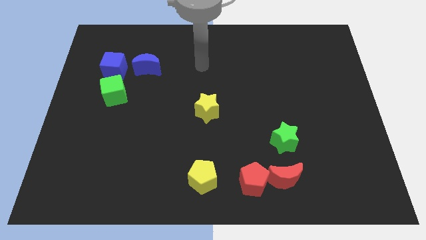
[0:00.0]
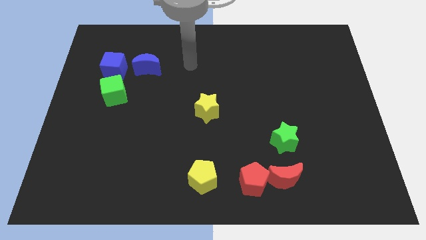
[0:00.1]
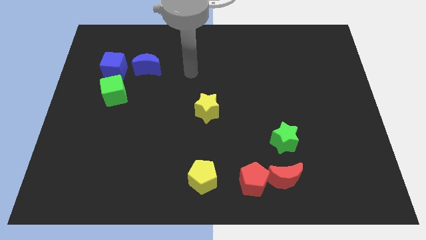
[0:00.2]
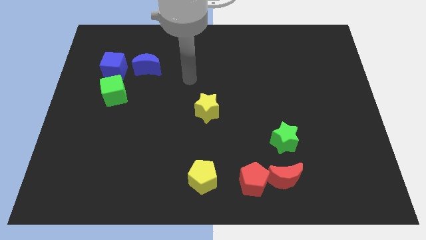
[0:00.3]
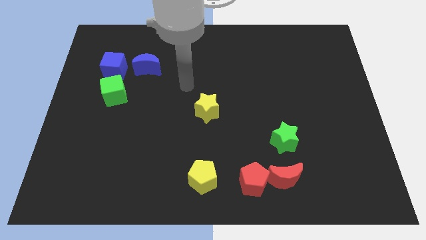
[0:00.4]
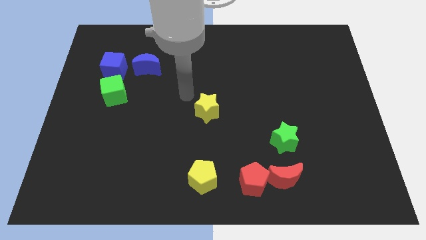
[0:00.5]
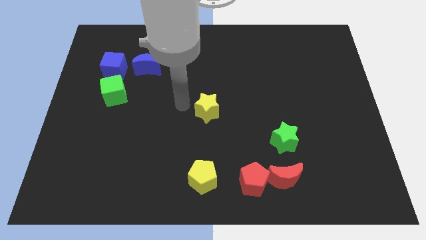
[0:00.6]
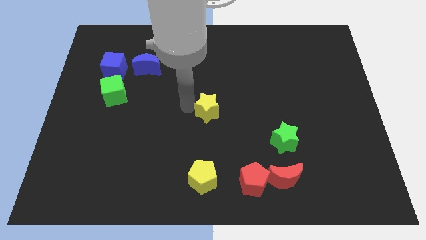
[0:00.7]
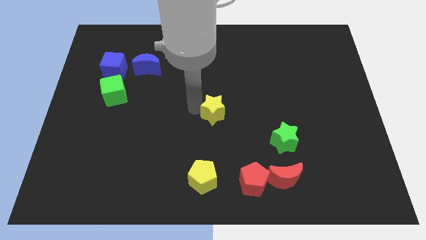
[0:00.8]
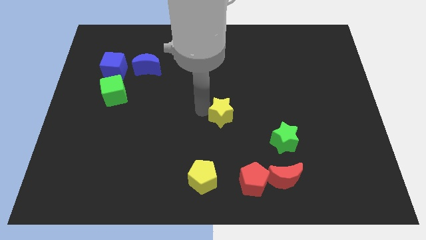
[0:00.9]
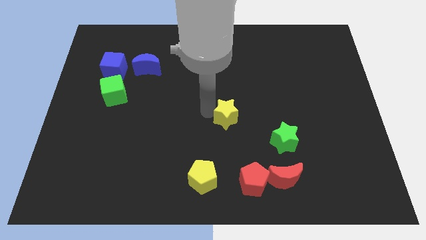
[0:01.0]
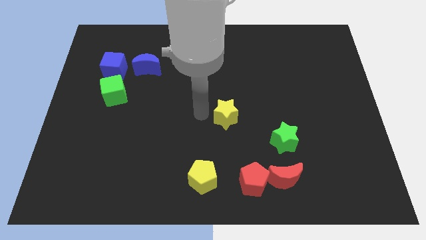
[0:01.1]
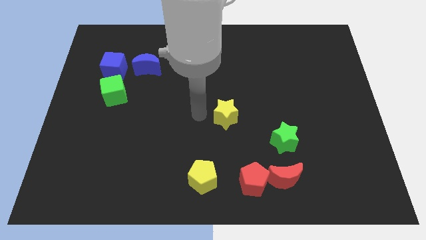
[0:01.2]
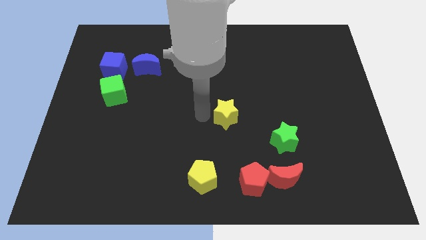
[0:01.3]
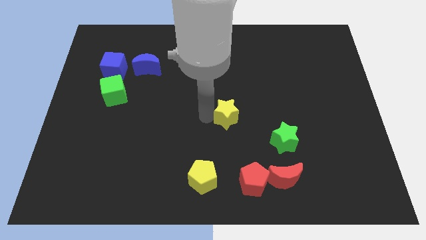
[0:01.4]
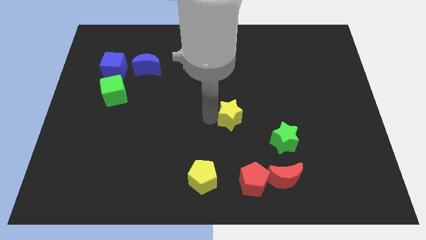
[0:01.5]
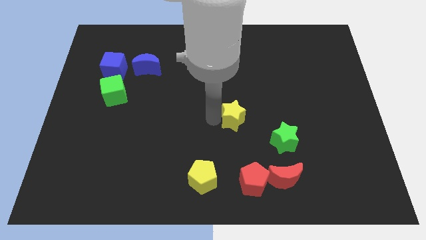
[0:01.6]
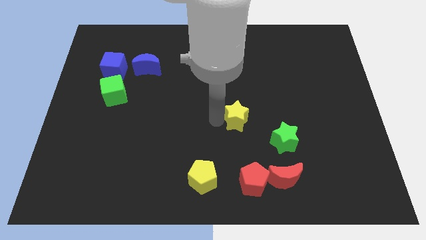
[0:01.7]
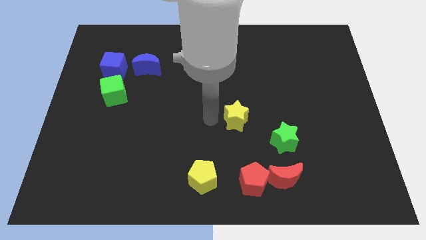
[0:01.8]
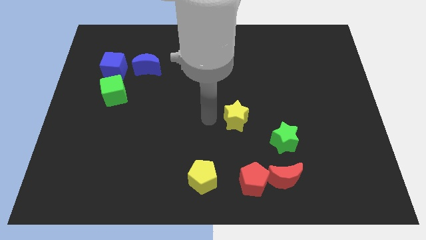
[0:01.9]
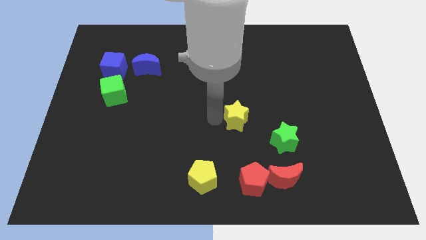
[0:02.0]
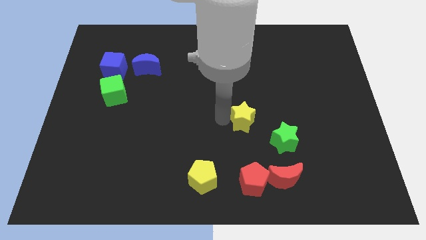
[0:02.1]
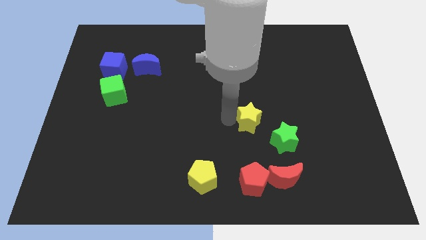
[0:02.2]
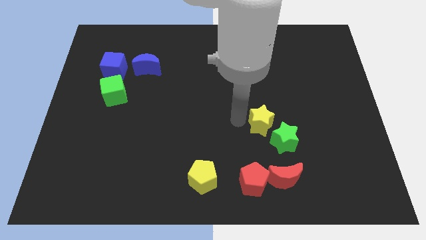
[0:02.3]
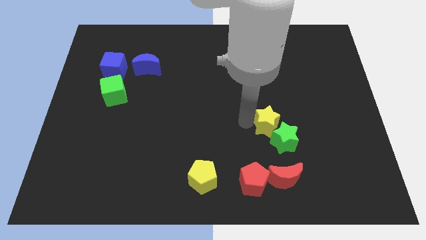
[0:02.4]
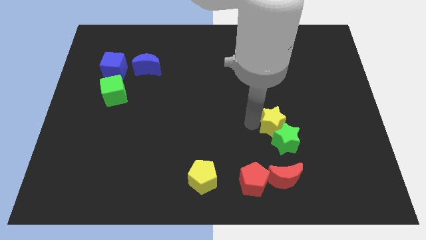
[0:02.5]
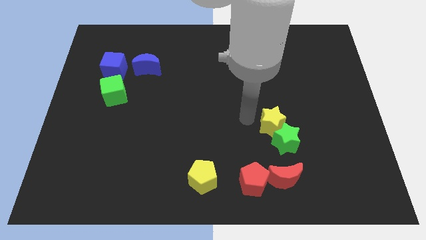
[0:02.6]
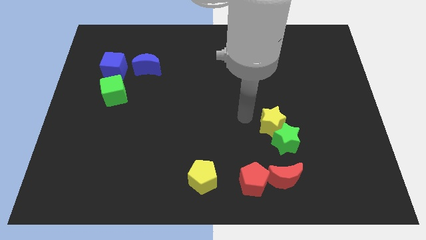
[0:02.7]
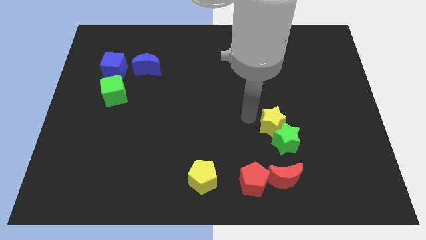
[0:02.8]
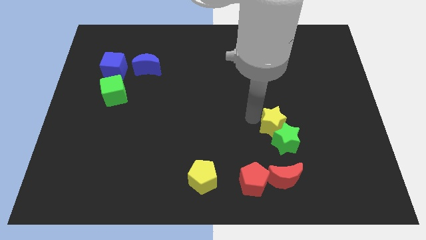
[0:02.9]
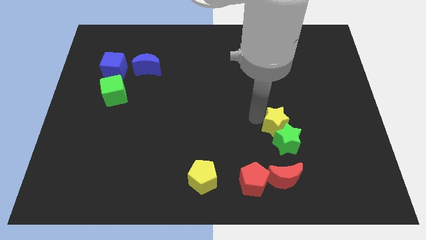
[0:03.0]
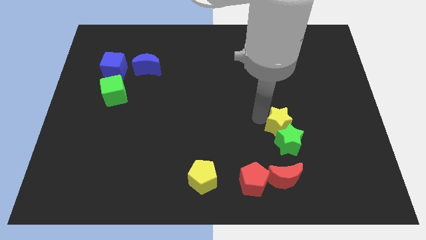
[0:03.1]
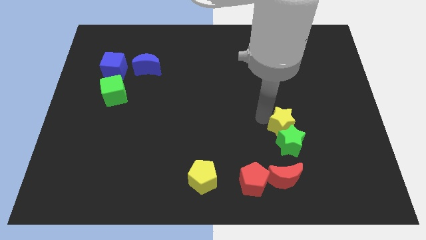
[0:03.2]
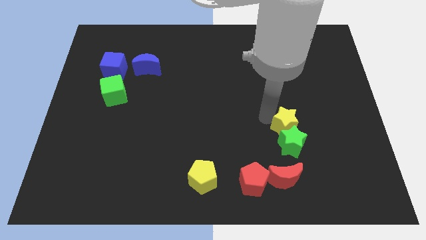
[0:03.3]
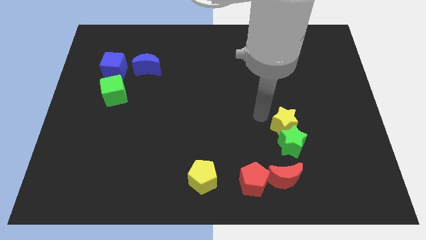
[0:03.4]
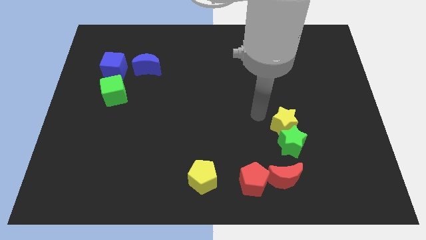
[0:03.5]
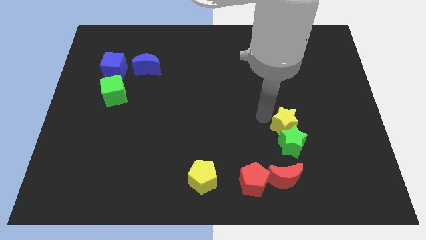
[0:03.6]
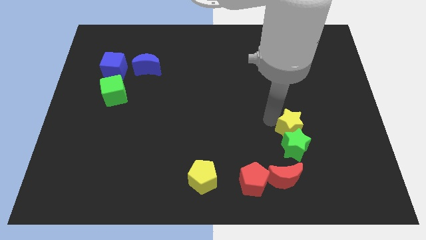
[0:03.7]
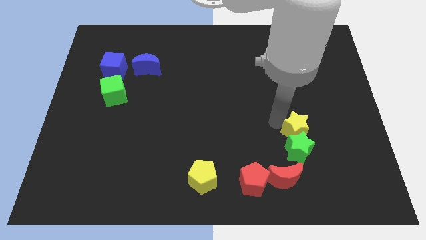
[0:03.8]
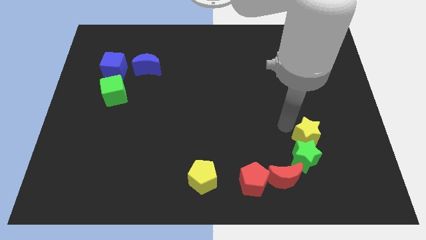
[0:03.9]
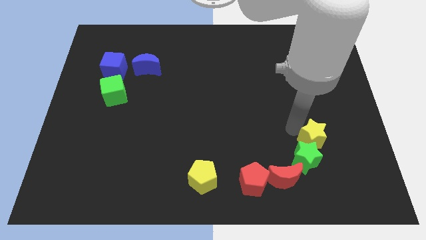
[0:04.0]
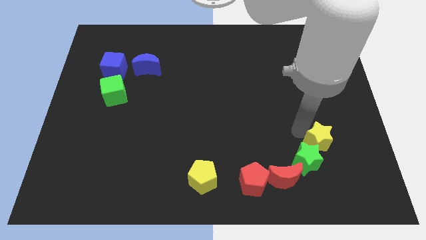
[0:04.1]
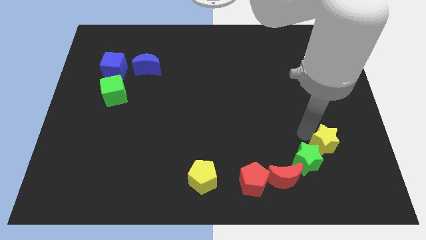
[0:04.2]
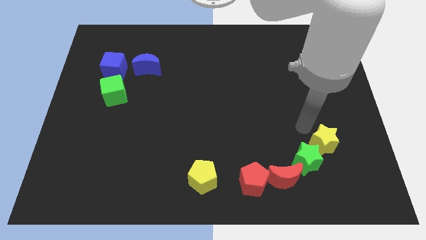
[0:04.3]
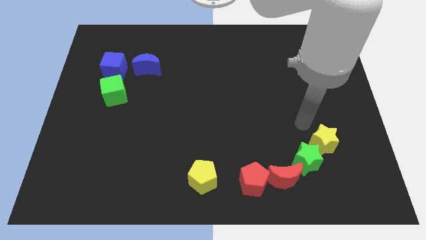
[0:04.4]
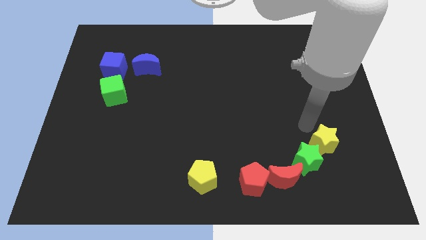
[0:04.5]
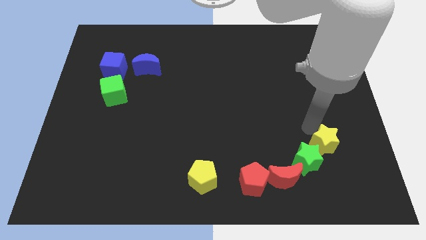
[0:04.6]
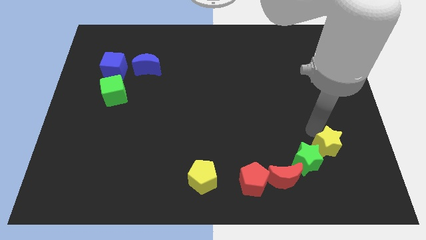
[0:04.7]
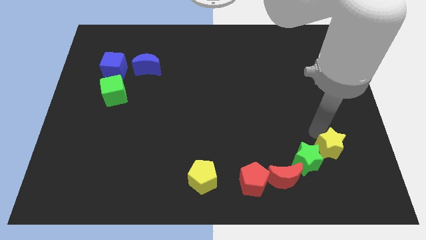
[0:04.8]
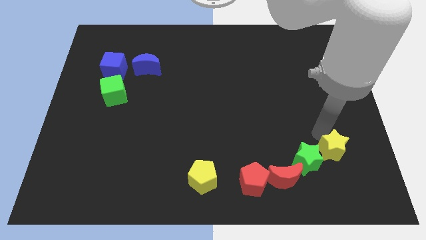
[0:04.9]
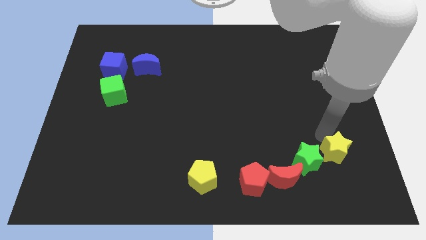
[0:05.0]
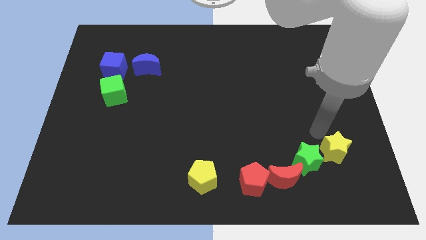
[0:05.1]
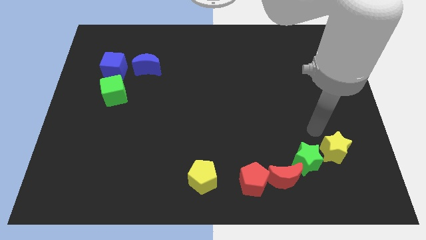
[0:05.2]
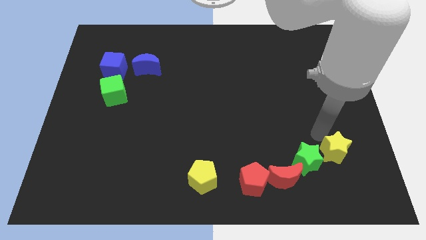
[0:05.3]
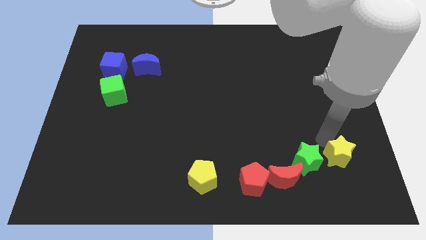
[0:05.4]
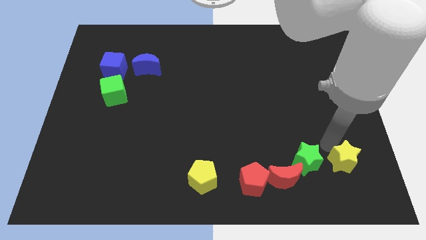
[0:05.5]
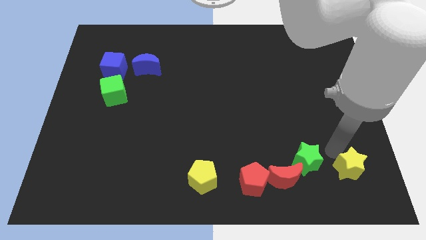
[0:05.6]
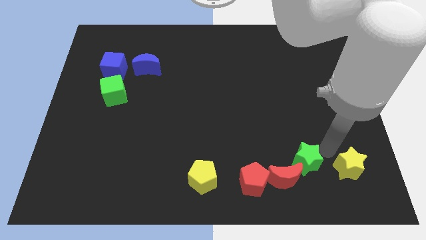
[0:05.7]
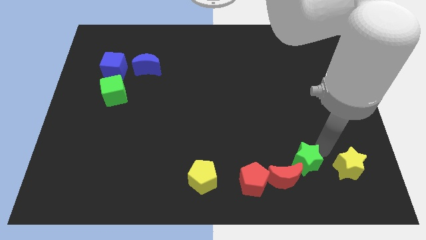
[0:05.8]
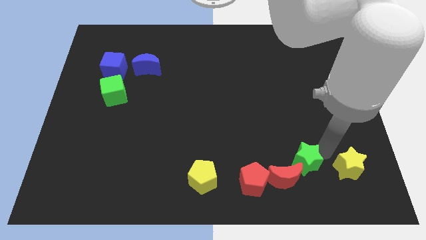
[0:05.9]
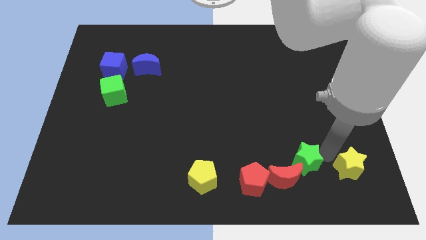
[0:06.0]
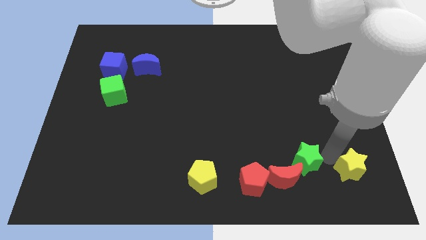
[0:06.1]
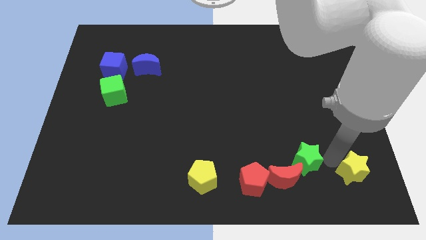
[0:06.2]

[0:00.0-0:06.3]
put the yellow star to the bottom right of the board

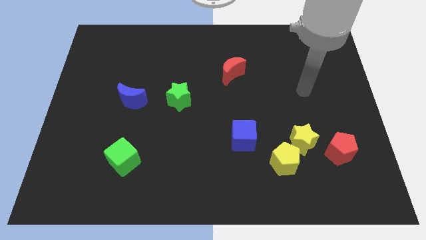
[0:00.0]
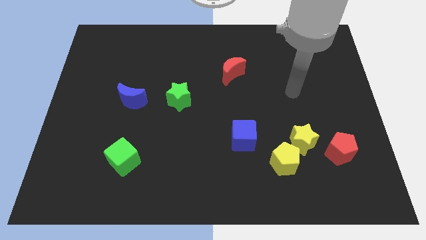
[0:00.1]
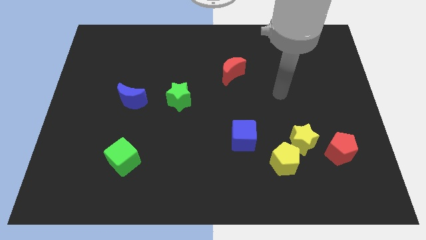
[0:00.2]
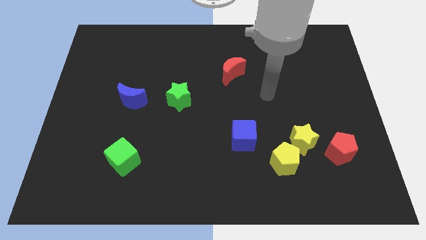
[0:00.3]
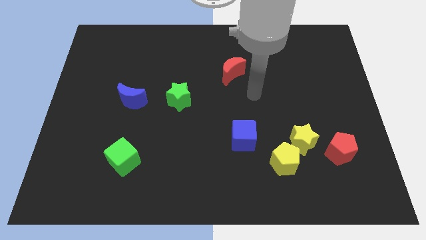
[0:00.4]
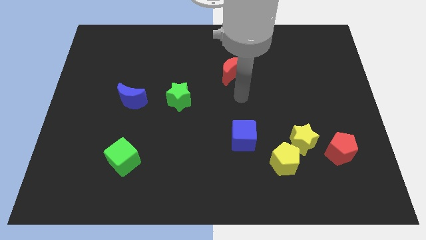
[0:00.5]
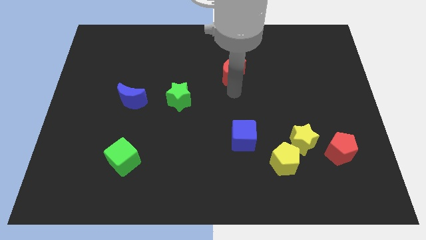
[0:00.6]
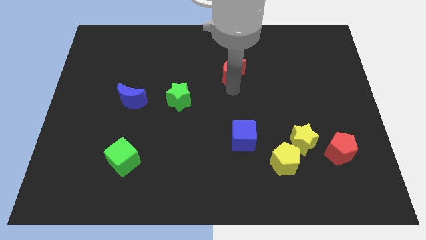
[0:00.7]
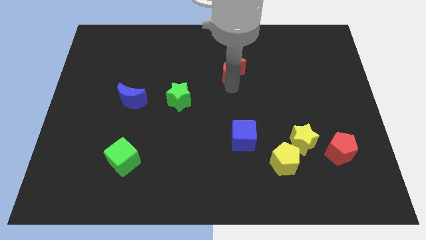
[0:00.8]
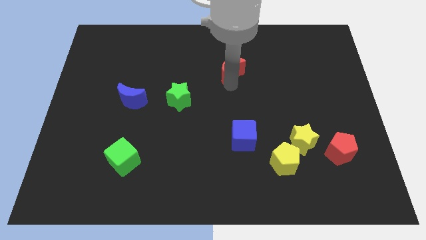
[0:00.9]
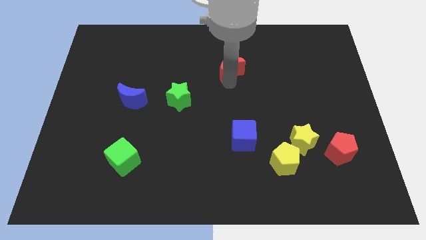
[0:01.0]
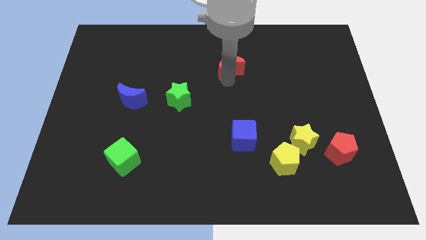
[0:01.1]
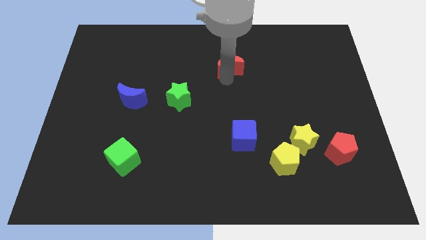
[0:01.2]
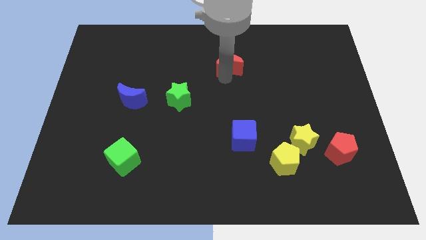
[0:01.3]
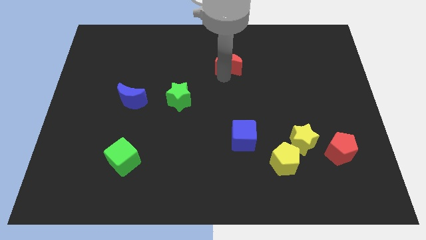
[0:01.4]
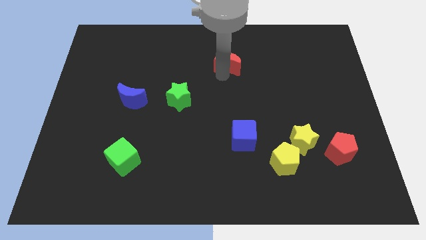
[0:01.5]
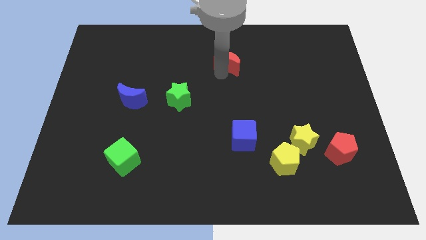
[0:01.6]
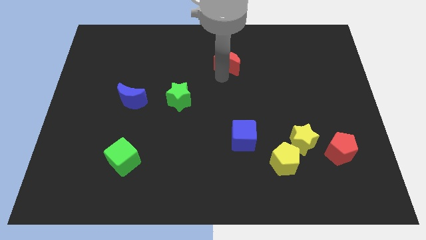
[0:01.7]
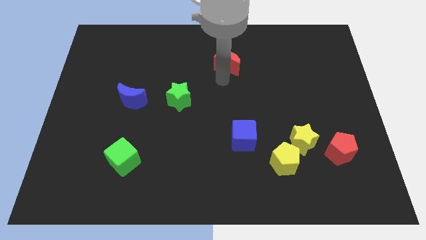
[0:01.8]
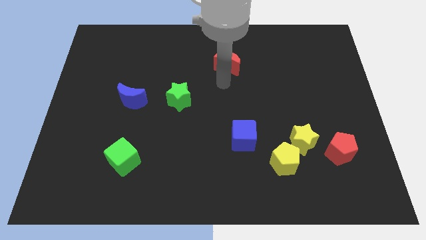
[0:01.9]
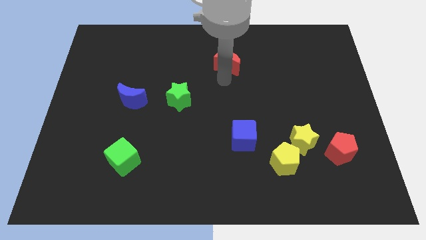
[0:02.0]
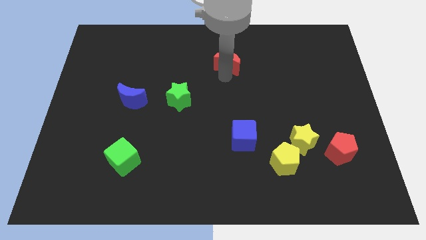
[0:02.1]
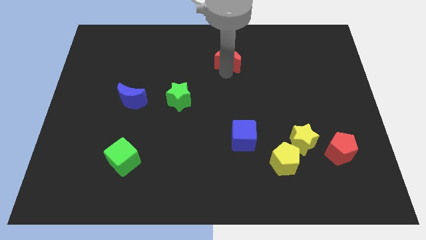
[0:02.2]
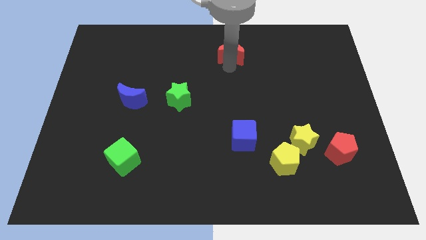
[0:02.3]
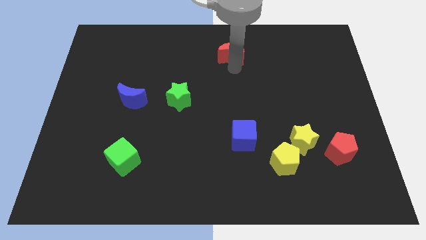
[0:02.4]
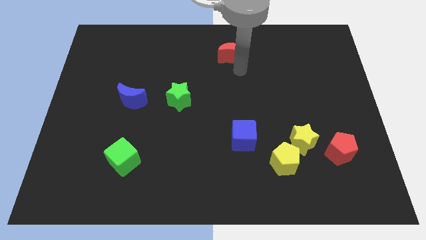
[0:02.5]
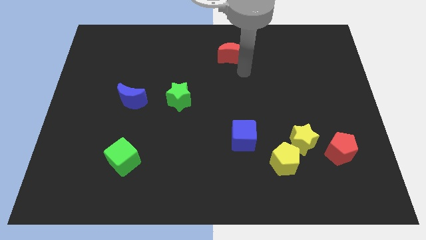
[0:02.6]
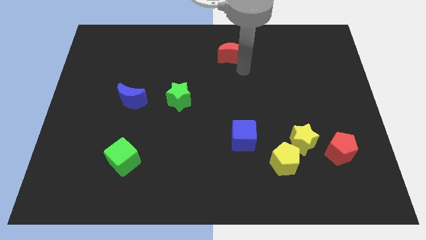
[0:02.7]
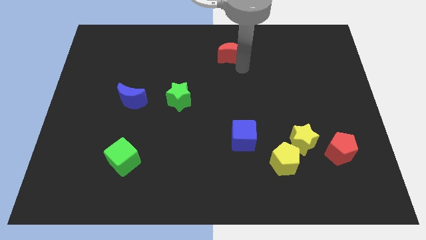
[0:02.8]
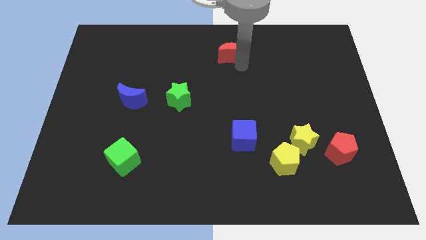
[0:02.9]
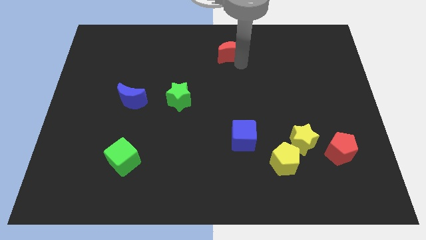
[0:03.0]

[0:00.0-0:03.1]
push the red moon to the towards your base
